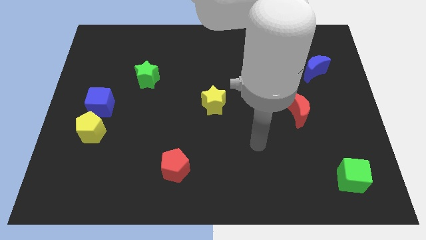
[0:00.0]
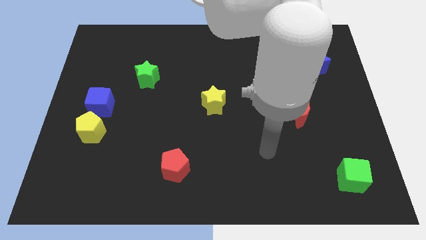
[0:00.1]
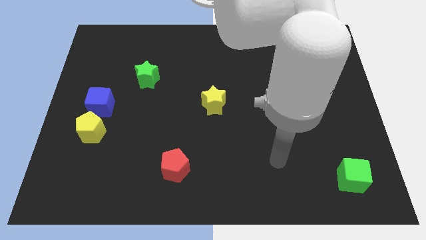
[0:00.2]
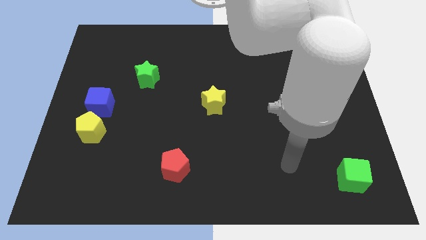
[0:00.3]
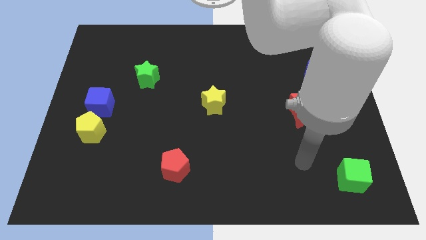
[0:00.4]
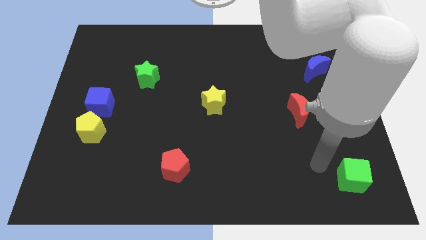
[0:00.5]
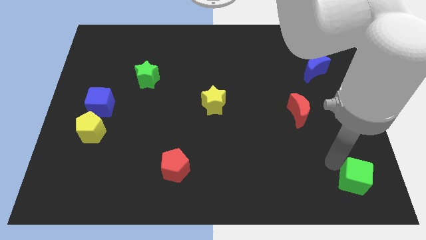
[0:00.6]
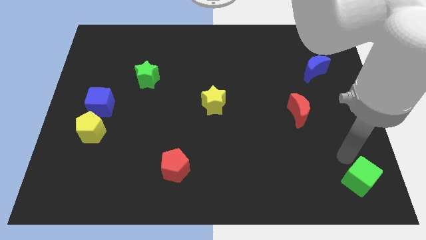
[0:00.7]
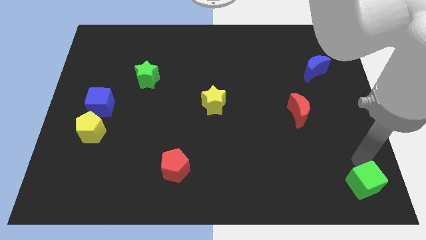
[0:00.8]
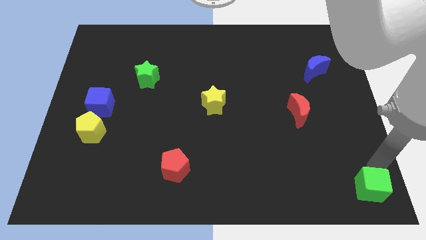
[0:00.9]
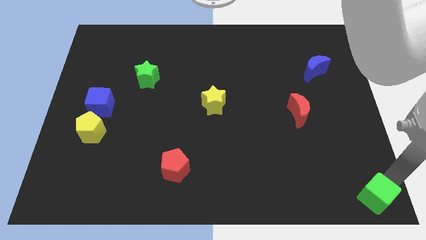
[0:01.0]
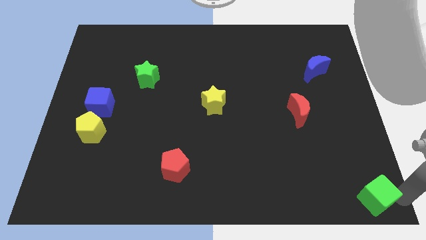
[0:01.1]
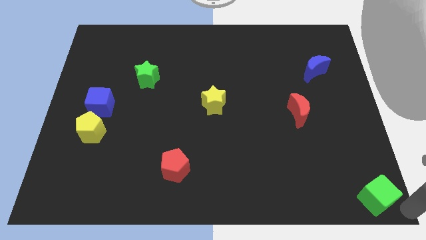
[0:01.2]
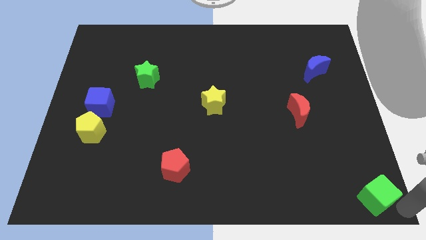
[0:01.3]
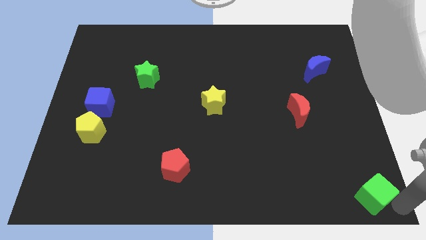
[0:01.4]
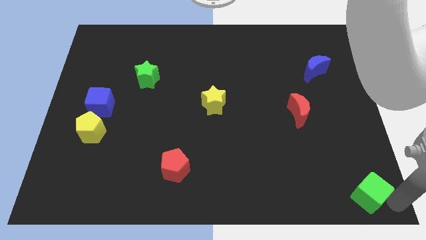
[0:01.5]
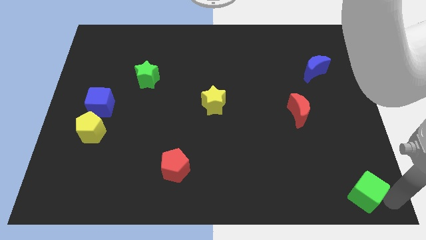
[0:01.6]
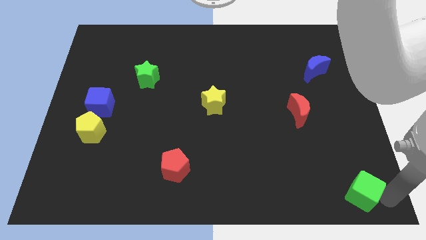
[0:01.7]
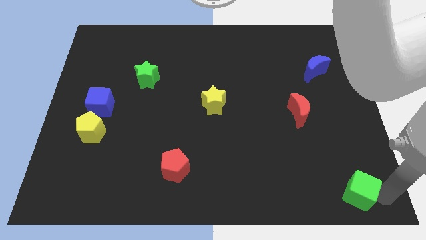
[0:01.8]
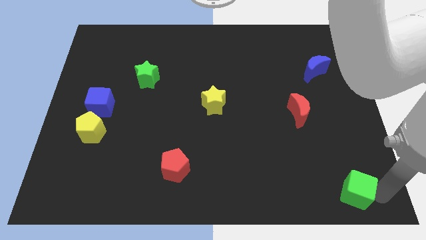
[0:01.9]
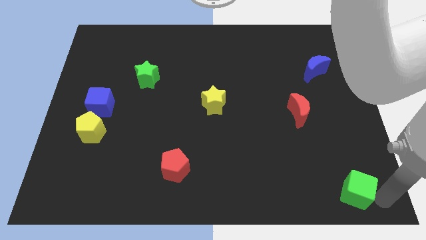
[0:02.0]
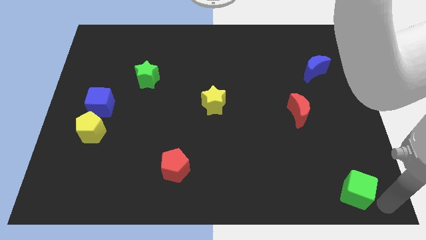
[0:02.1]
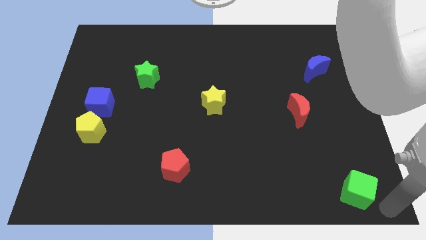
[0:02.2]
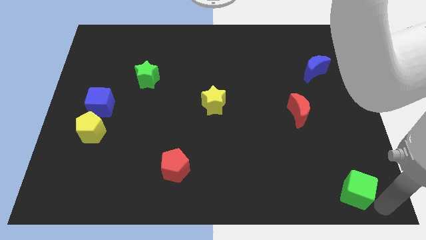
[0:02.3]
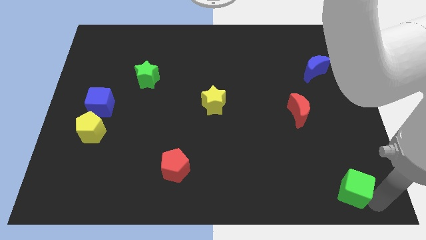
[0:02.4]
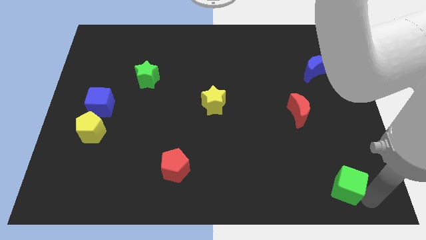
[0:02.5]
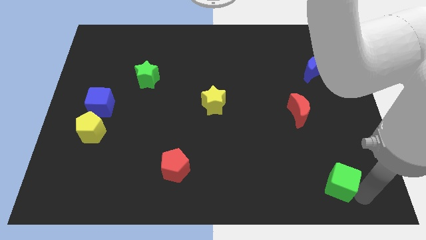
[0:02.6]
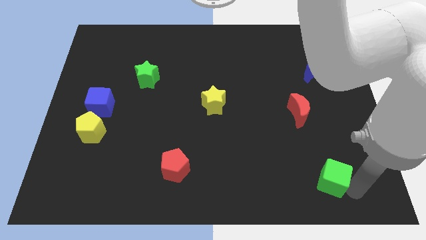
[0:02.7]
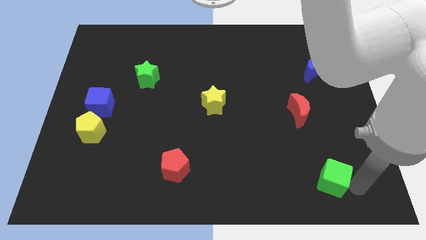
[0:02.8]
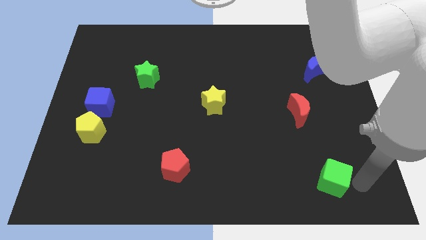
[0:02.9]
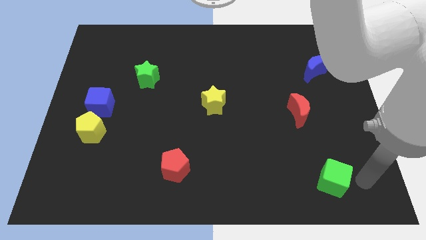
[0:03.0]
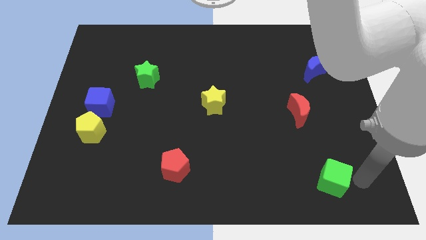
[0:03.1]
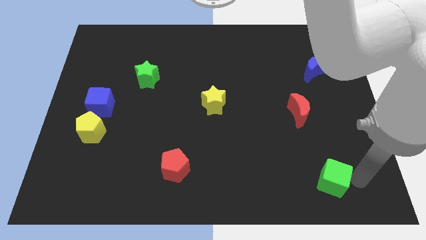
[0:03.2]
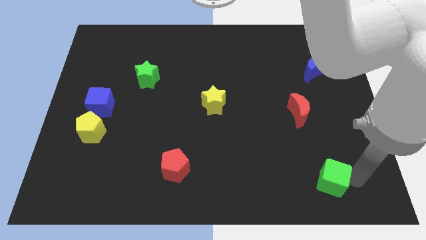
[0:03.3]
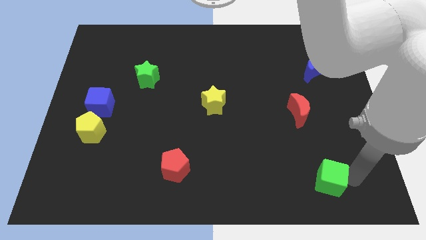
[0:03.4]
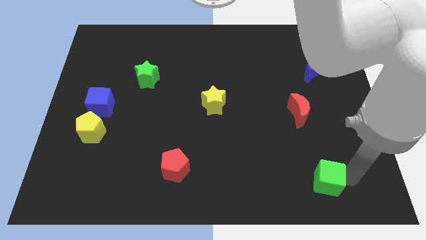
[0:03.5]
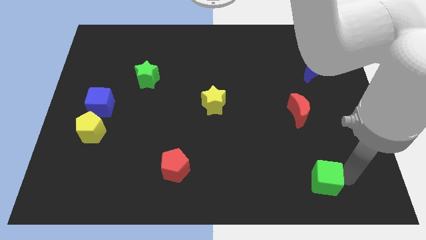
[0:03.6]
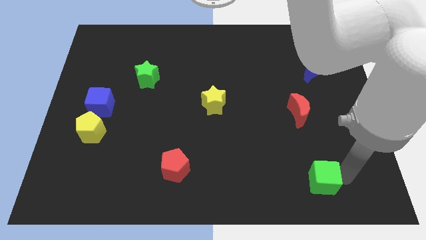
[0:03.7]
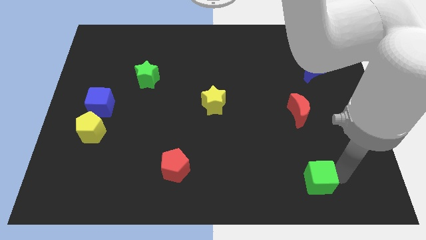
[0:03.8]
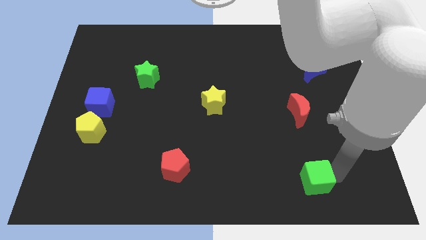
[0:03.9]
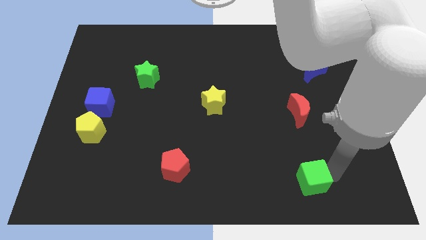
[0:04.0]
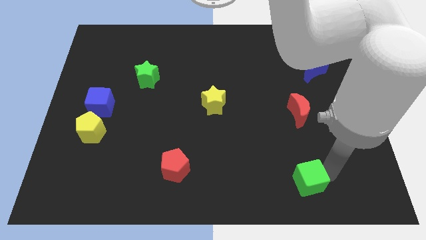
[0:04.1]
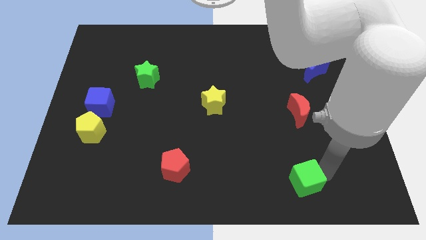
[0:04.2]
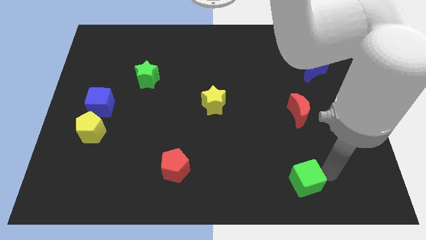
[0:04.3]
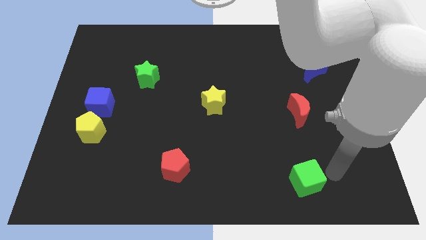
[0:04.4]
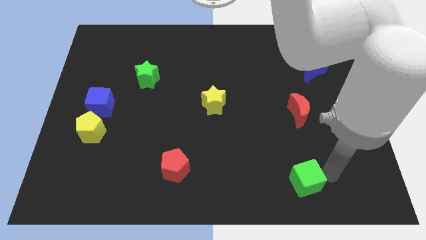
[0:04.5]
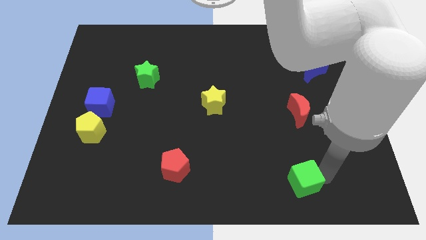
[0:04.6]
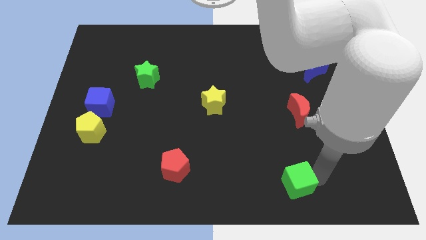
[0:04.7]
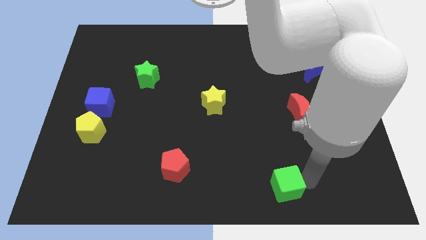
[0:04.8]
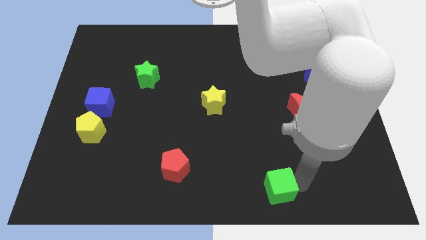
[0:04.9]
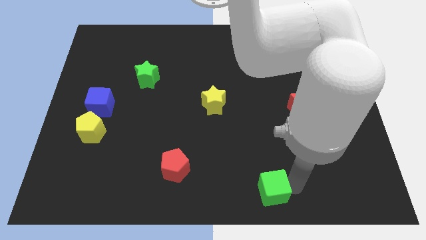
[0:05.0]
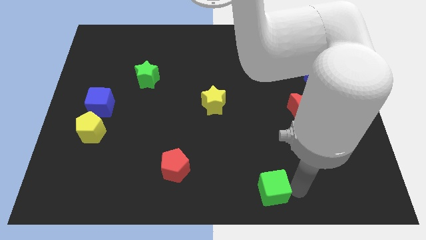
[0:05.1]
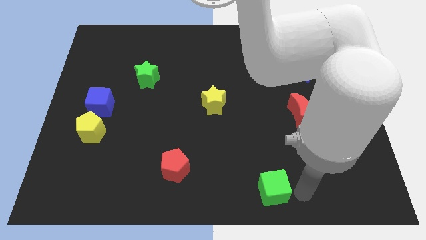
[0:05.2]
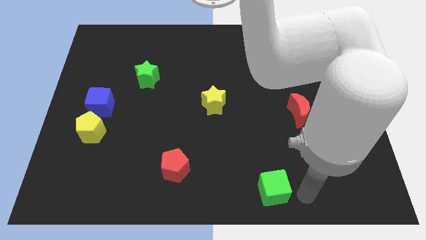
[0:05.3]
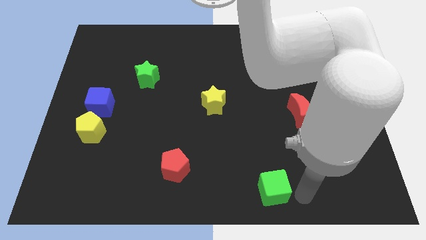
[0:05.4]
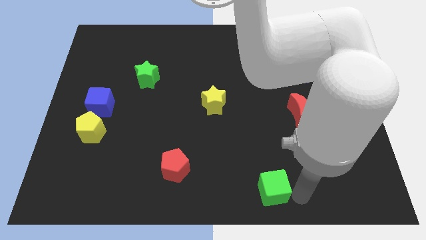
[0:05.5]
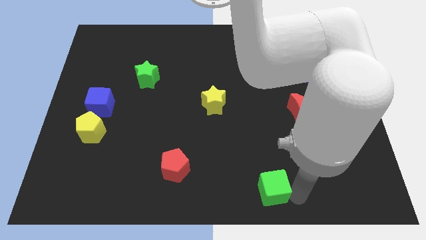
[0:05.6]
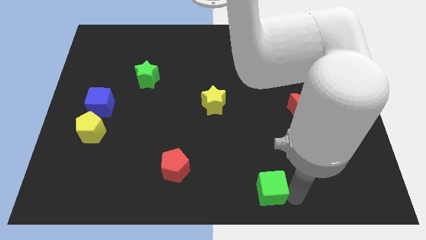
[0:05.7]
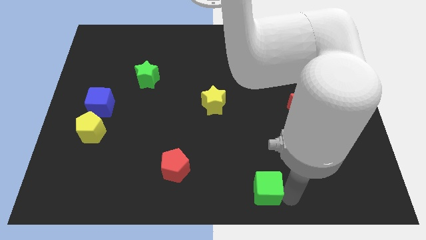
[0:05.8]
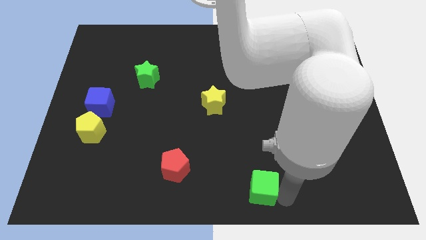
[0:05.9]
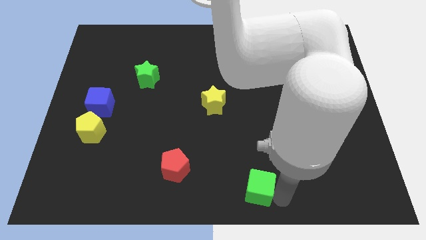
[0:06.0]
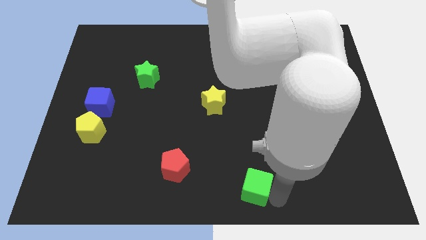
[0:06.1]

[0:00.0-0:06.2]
move the green cube left

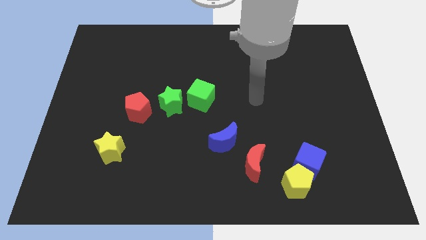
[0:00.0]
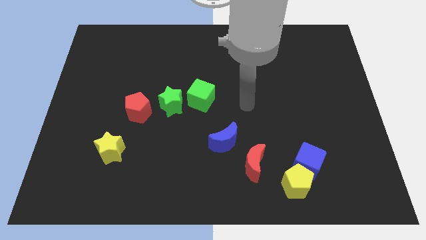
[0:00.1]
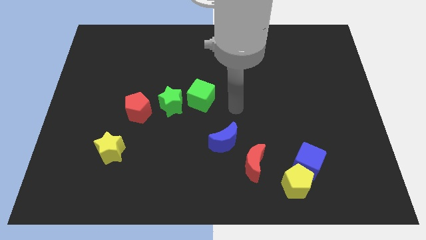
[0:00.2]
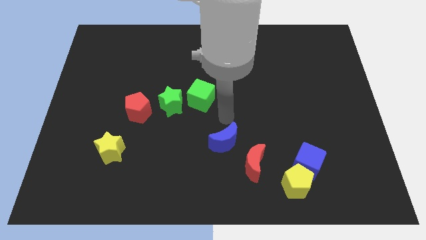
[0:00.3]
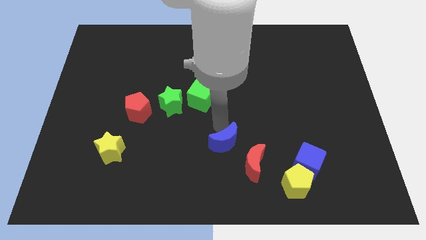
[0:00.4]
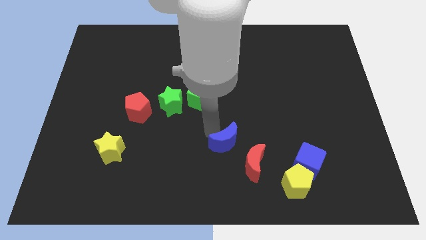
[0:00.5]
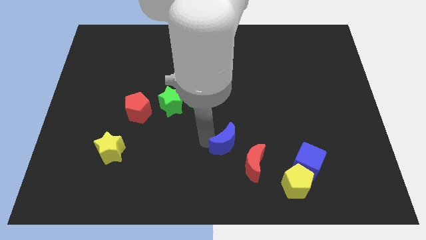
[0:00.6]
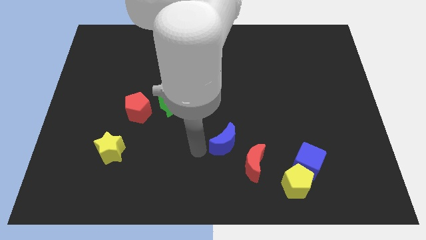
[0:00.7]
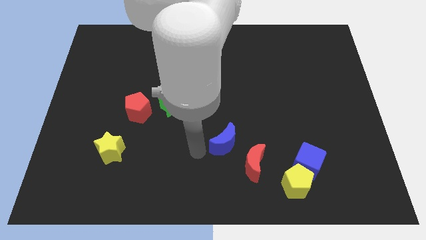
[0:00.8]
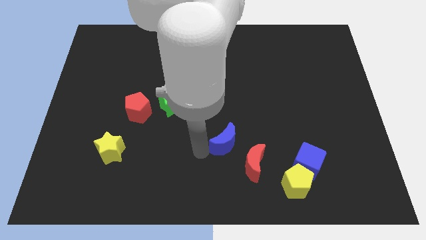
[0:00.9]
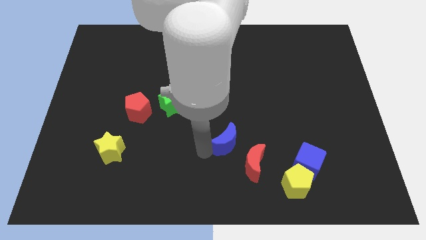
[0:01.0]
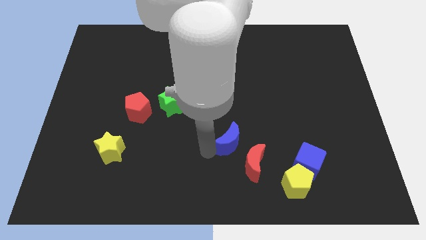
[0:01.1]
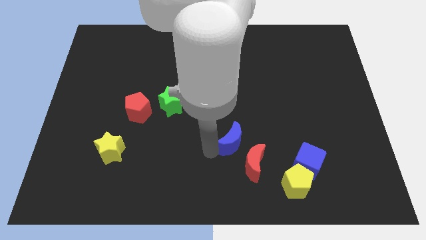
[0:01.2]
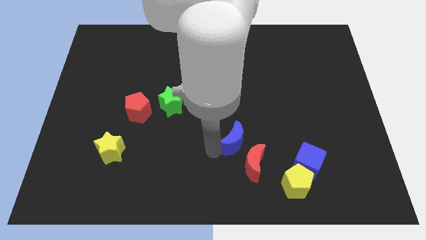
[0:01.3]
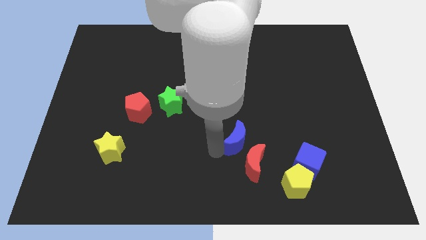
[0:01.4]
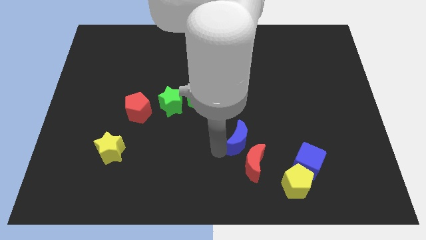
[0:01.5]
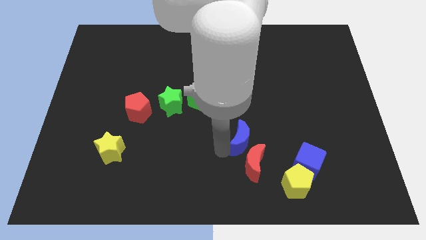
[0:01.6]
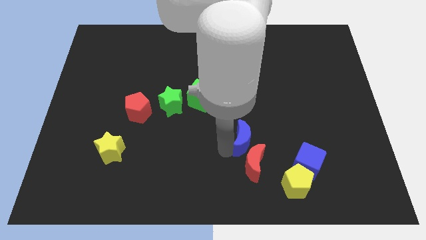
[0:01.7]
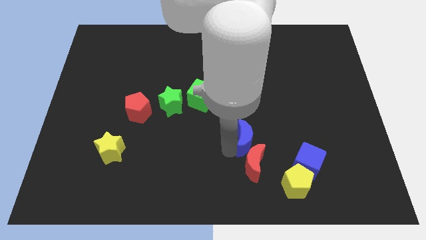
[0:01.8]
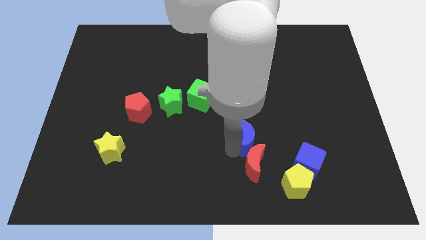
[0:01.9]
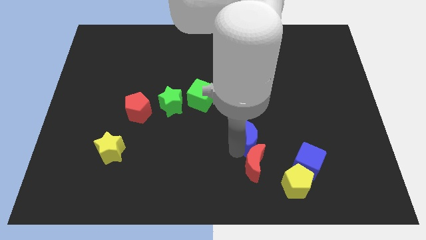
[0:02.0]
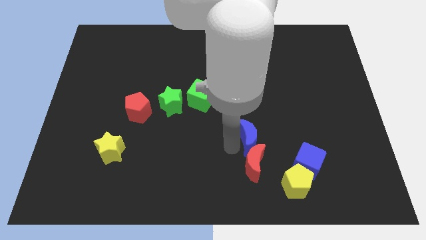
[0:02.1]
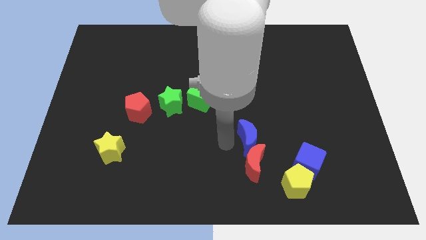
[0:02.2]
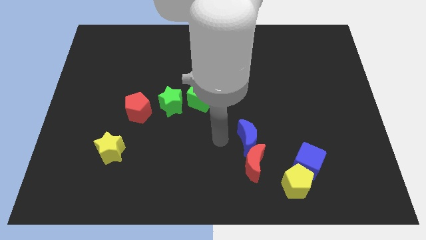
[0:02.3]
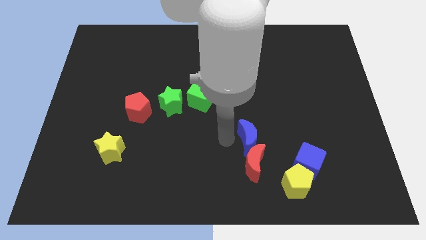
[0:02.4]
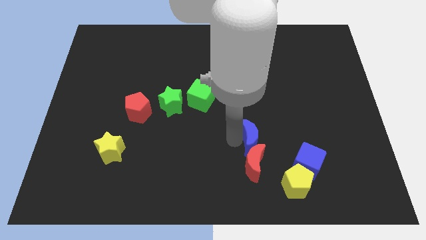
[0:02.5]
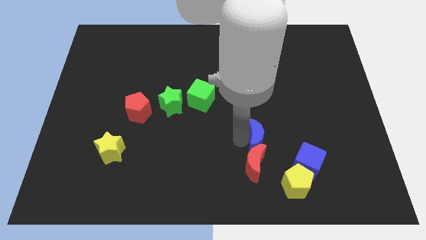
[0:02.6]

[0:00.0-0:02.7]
slightly move the blue moon to the right
